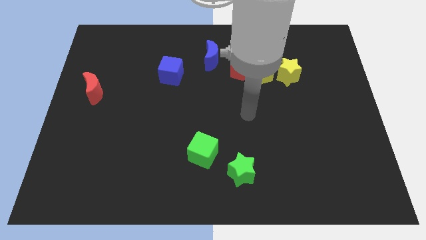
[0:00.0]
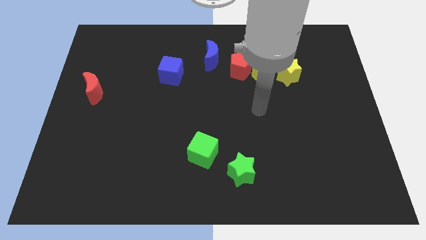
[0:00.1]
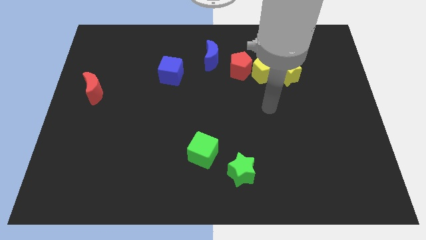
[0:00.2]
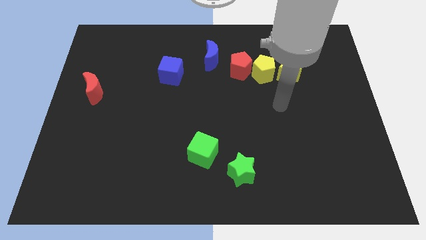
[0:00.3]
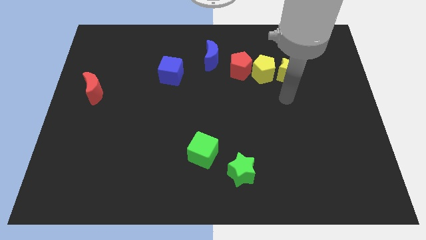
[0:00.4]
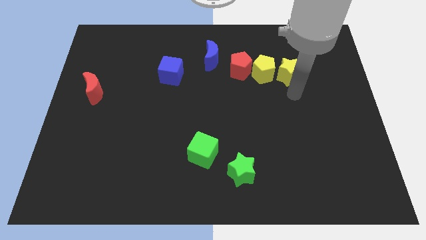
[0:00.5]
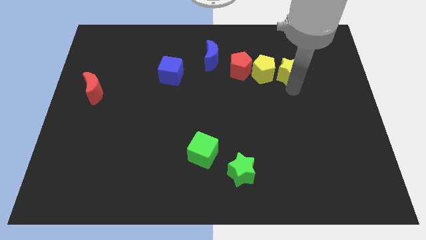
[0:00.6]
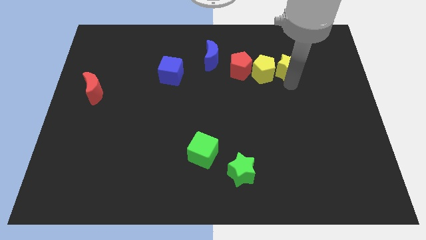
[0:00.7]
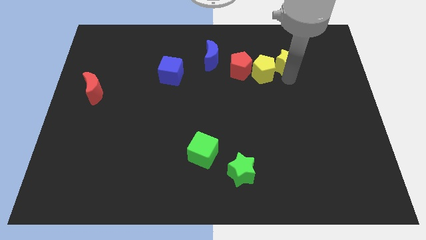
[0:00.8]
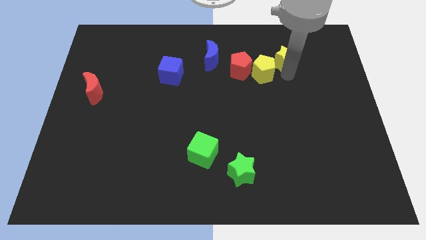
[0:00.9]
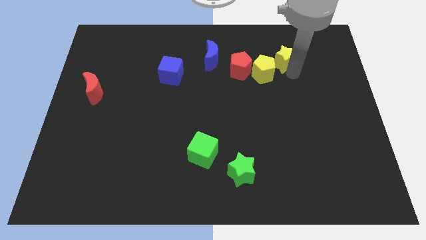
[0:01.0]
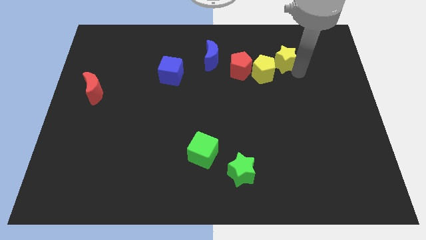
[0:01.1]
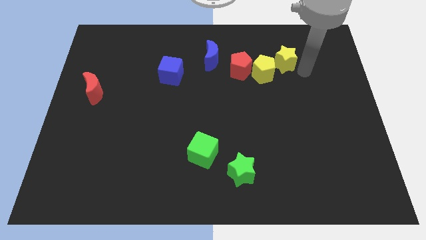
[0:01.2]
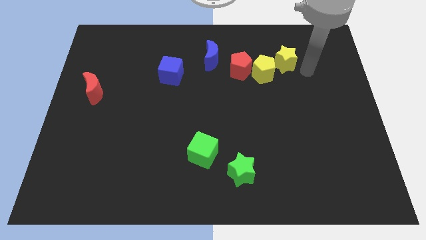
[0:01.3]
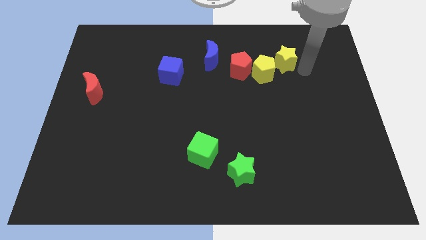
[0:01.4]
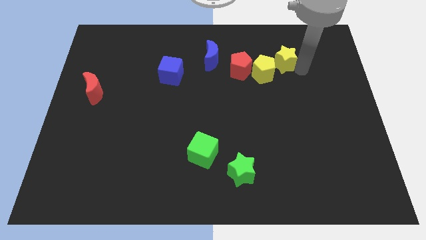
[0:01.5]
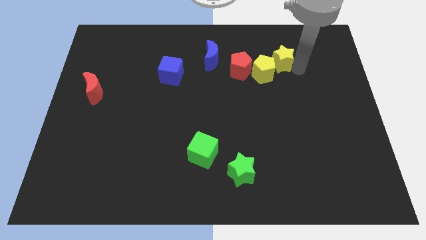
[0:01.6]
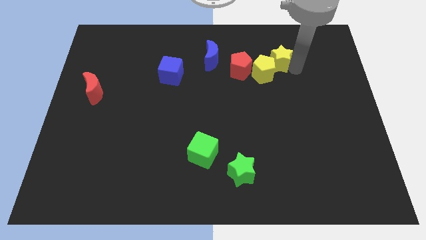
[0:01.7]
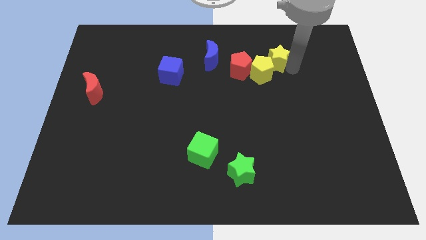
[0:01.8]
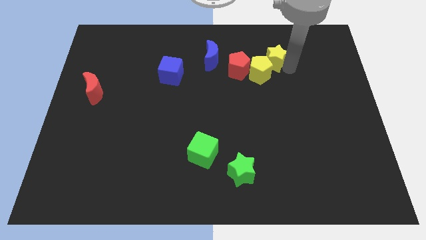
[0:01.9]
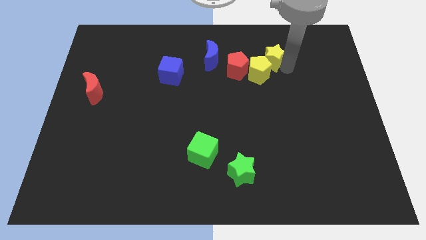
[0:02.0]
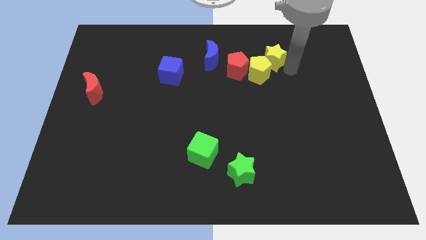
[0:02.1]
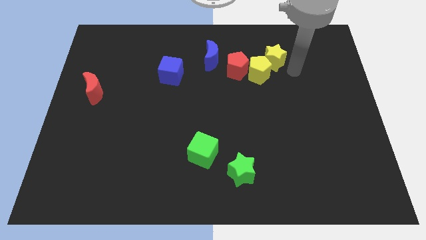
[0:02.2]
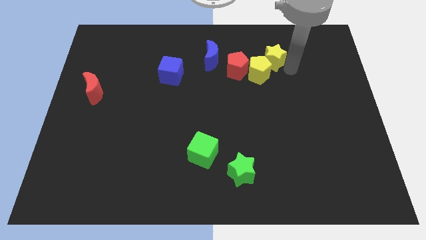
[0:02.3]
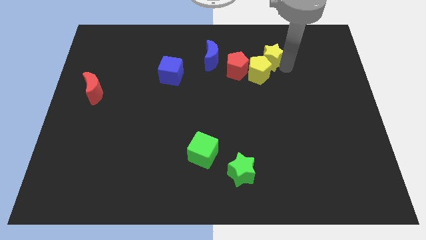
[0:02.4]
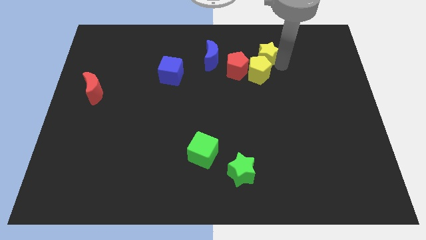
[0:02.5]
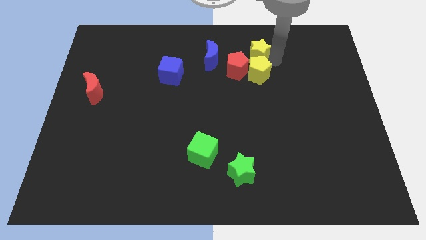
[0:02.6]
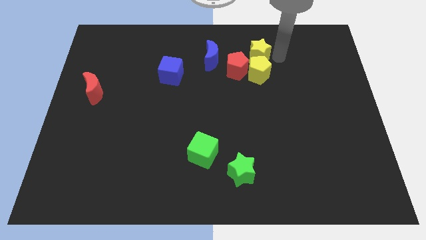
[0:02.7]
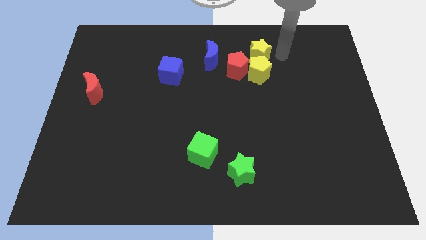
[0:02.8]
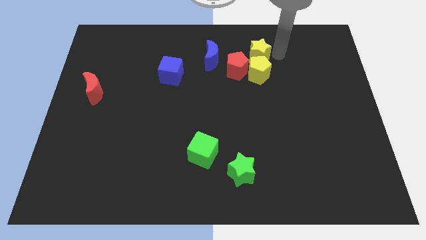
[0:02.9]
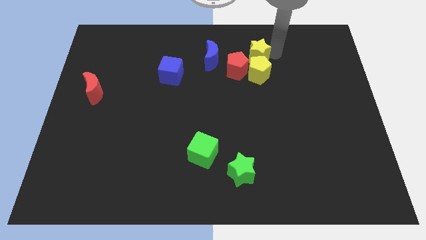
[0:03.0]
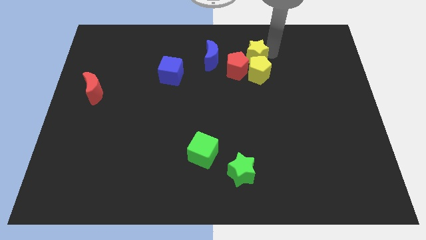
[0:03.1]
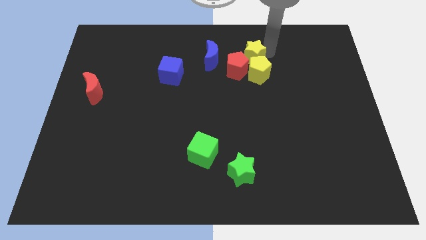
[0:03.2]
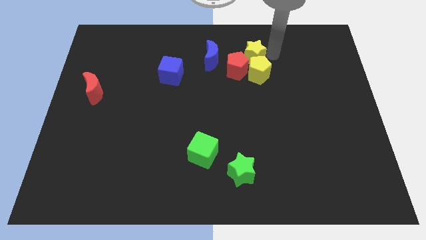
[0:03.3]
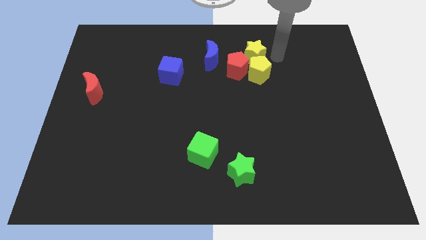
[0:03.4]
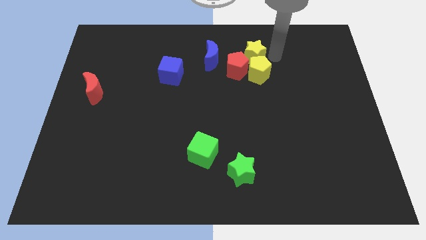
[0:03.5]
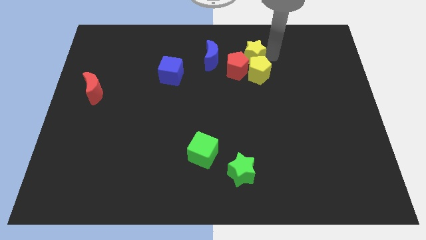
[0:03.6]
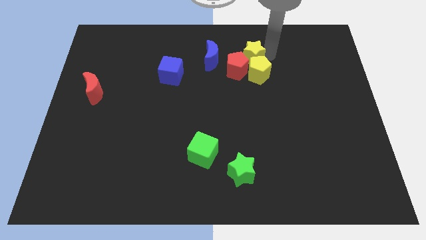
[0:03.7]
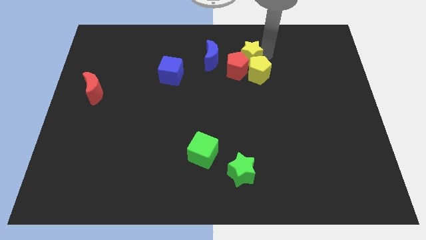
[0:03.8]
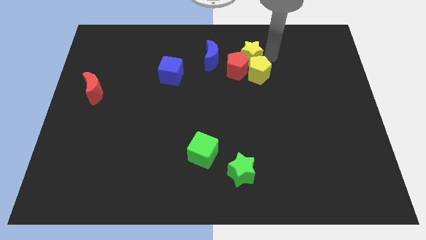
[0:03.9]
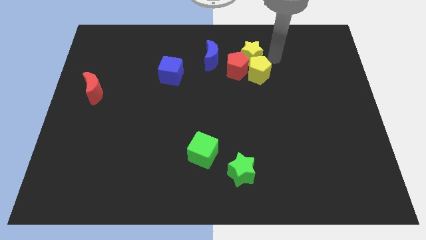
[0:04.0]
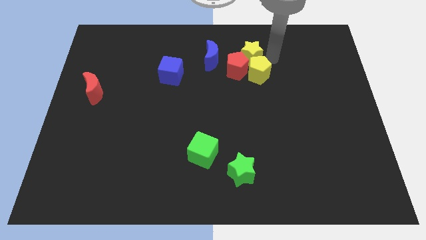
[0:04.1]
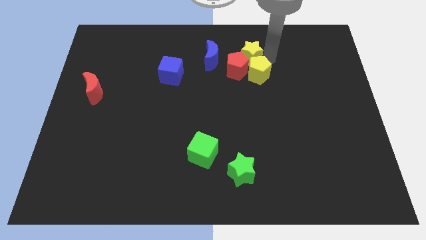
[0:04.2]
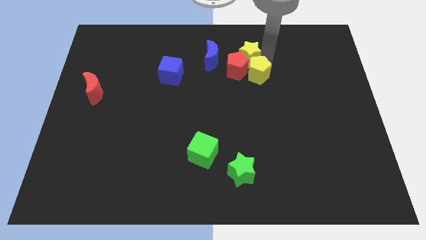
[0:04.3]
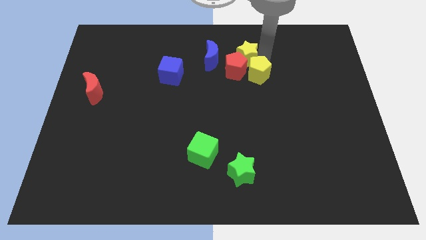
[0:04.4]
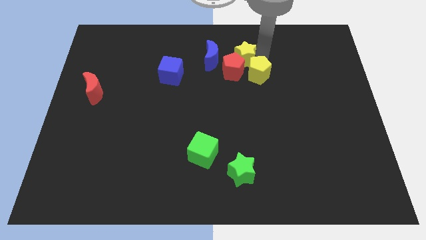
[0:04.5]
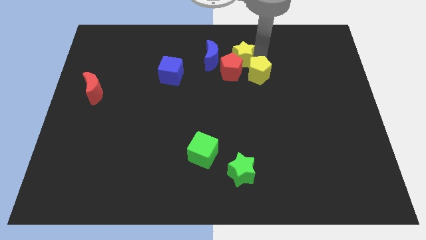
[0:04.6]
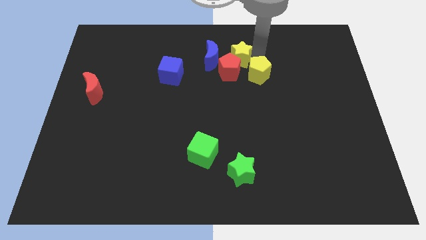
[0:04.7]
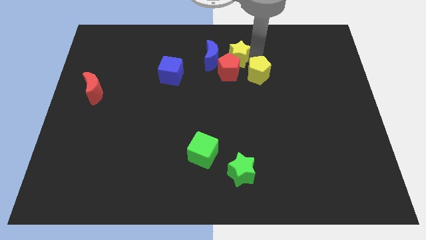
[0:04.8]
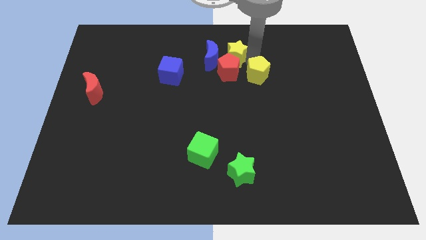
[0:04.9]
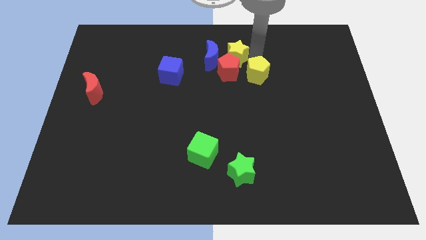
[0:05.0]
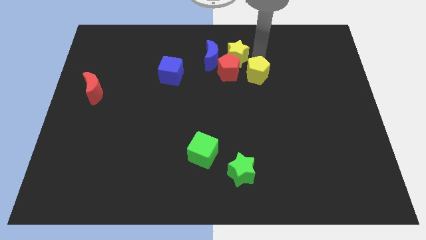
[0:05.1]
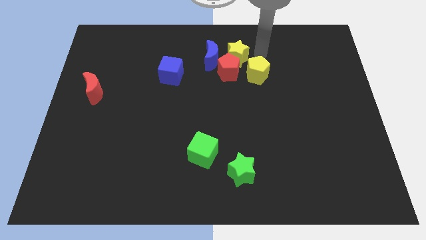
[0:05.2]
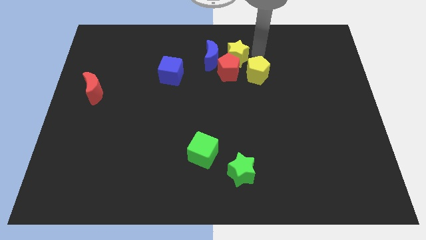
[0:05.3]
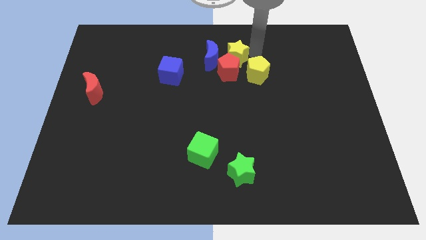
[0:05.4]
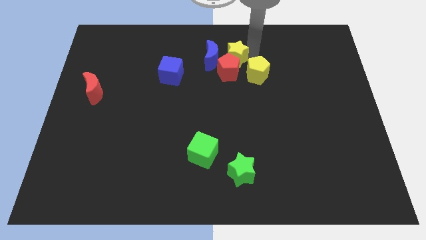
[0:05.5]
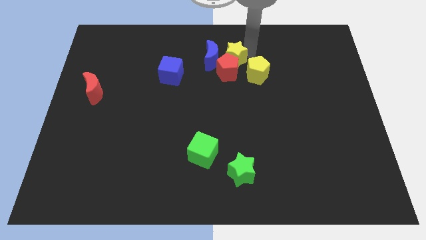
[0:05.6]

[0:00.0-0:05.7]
slide the yellow star to the blue moon

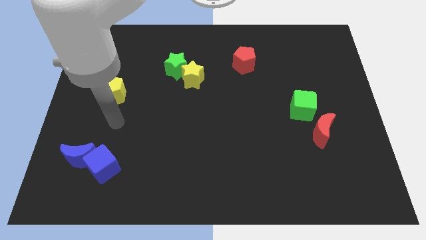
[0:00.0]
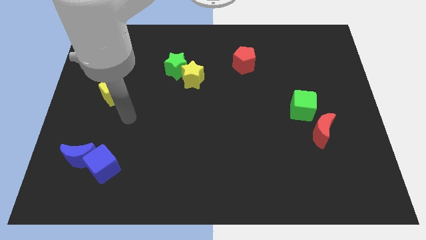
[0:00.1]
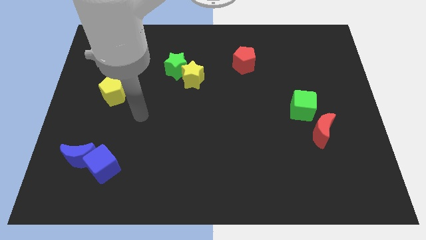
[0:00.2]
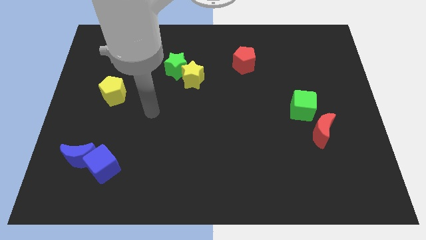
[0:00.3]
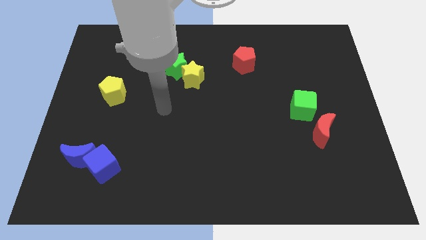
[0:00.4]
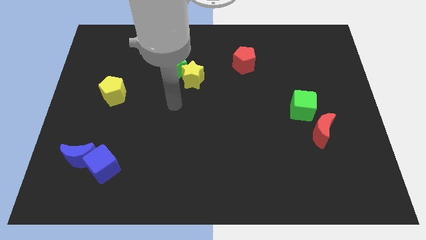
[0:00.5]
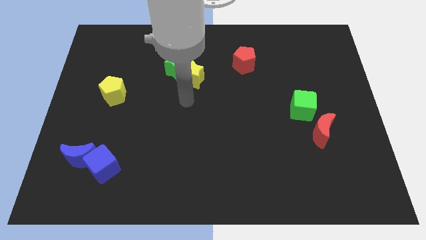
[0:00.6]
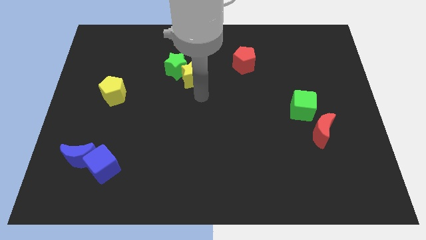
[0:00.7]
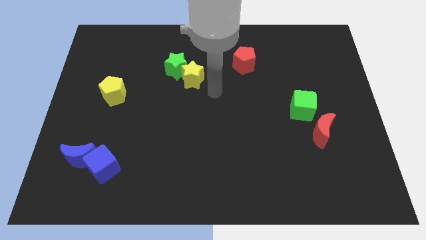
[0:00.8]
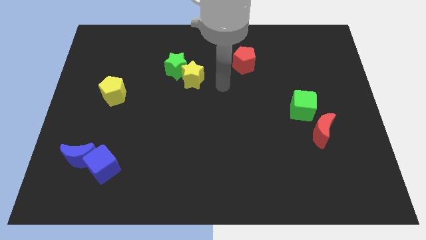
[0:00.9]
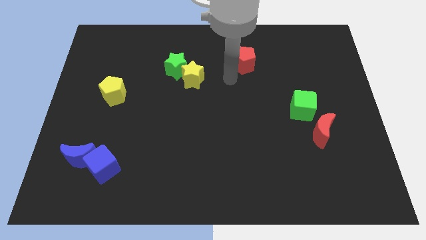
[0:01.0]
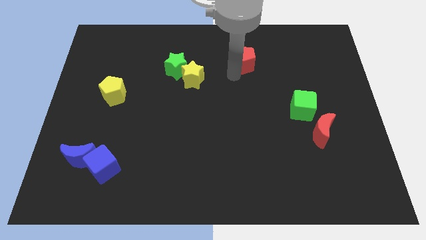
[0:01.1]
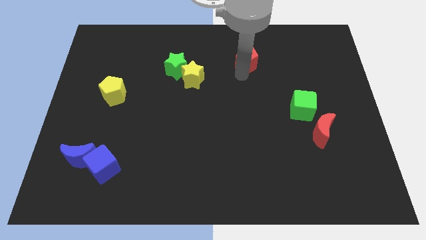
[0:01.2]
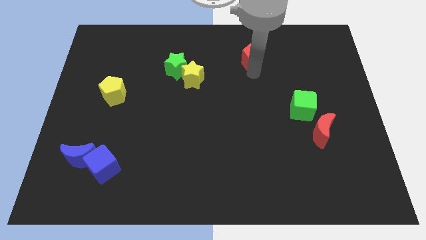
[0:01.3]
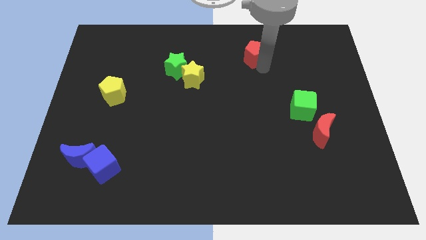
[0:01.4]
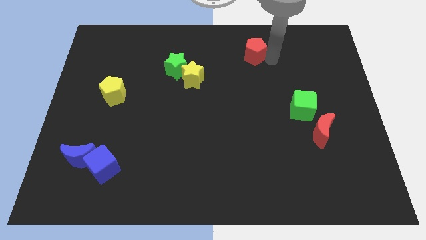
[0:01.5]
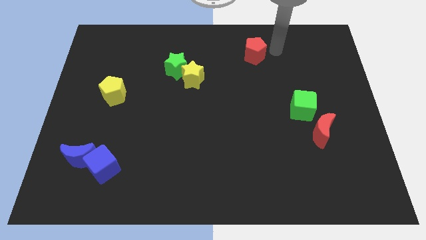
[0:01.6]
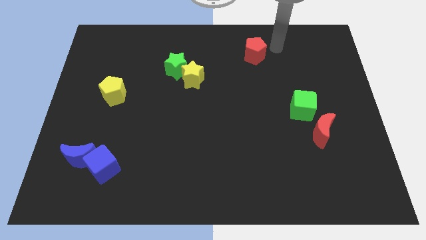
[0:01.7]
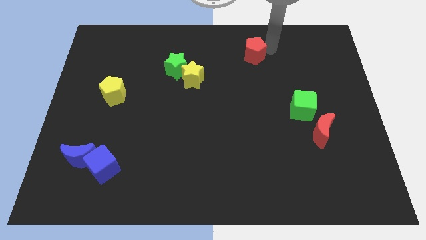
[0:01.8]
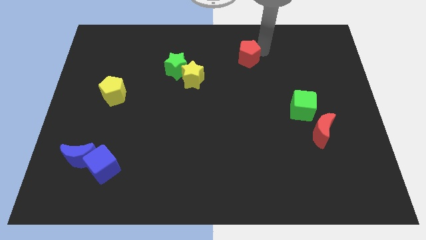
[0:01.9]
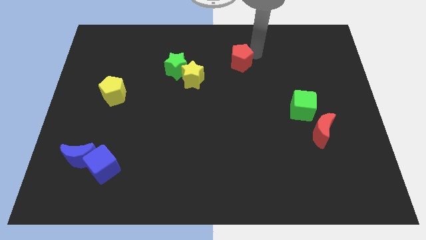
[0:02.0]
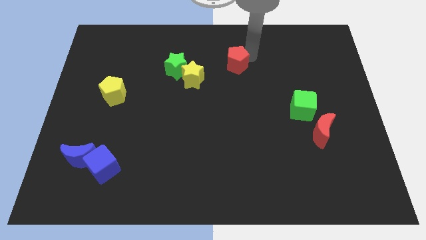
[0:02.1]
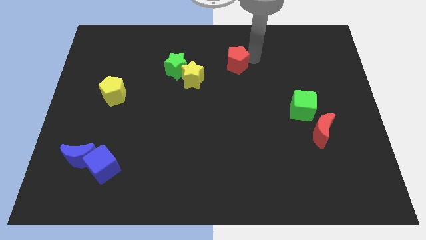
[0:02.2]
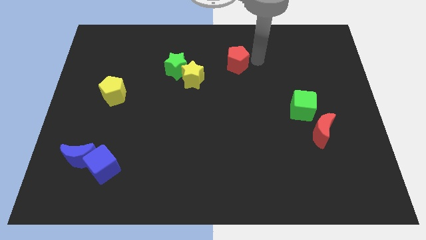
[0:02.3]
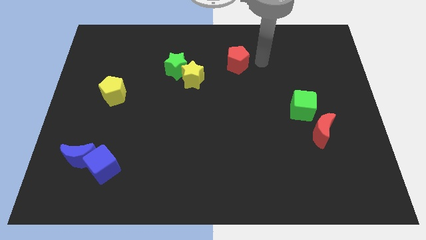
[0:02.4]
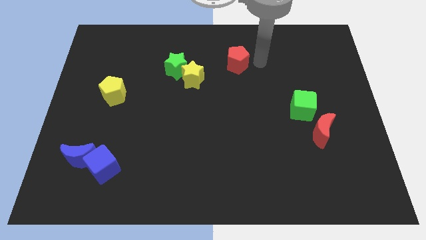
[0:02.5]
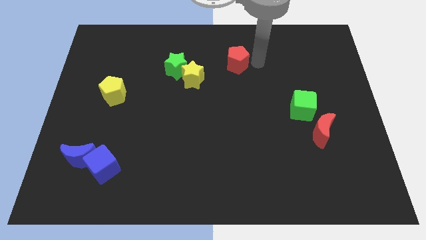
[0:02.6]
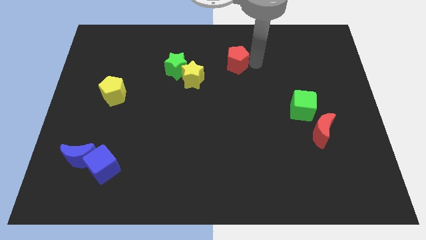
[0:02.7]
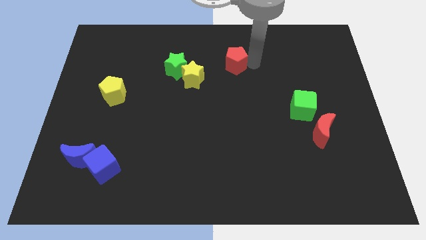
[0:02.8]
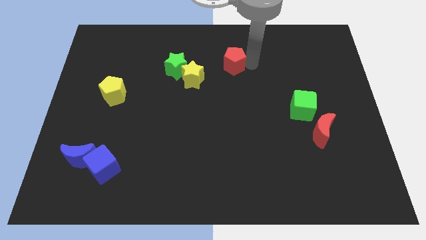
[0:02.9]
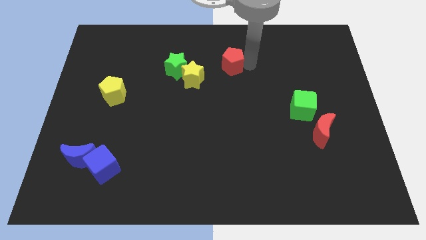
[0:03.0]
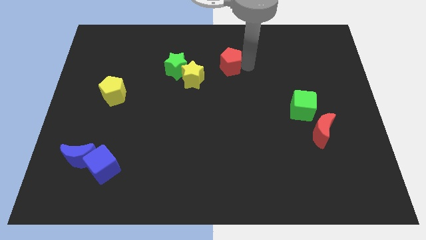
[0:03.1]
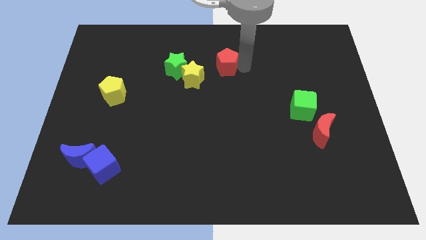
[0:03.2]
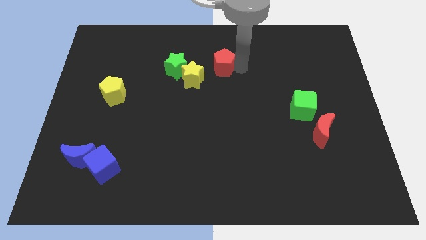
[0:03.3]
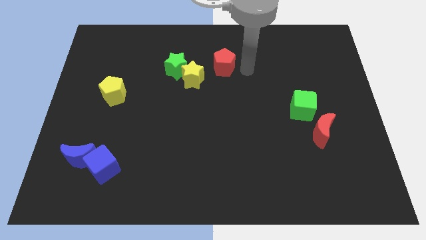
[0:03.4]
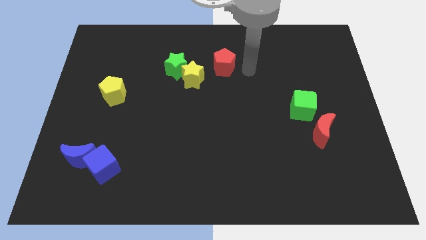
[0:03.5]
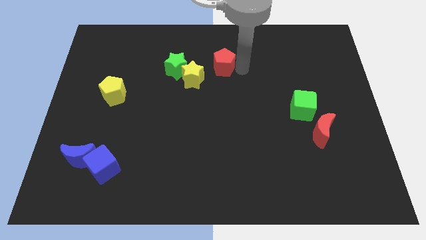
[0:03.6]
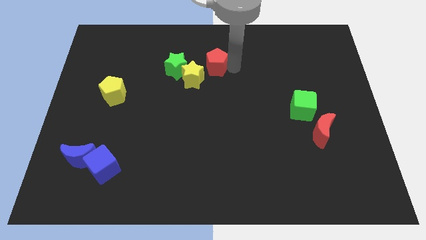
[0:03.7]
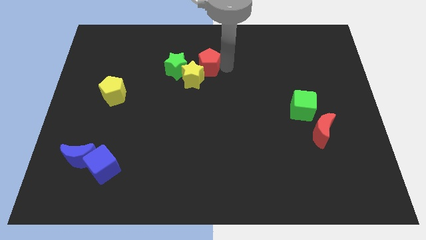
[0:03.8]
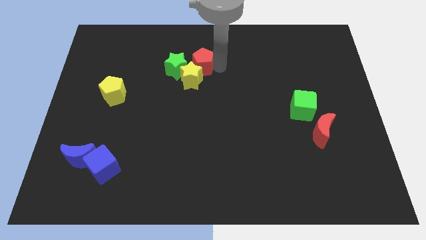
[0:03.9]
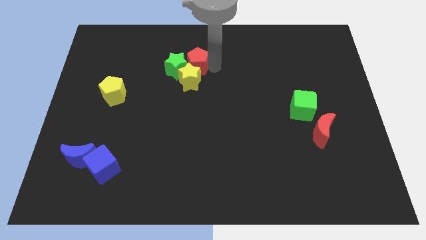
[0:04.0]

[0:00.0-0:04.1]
push the red pentagon next to the green star
